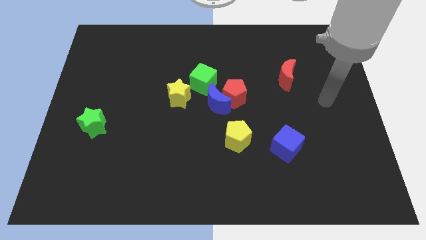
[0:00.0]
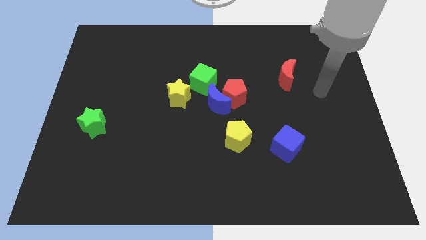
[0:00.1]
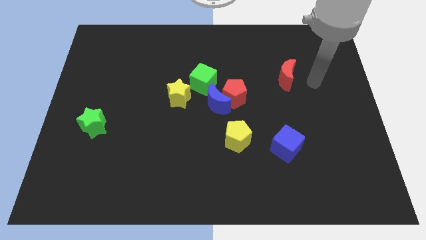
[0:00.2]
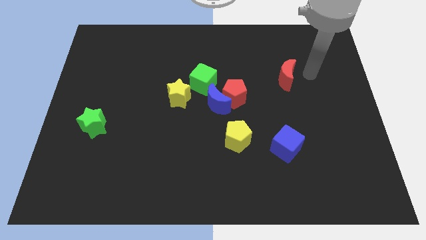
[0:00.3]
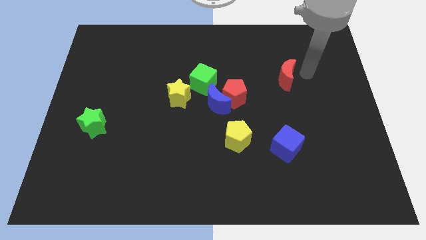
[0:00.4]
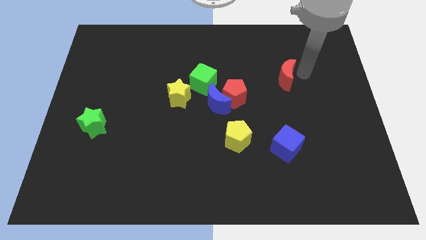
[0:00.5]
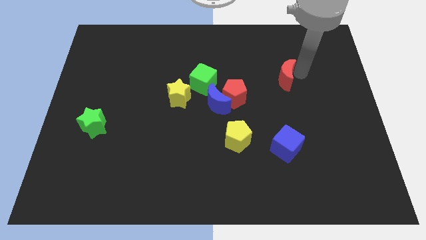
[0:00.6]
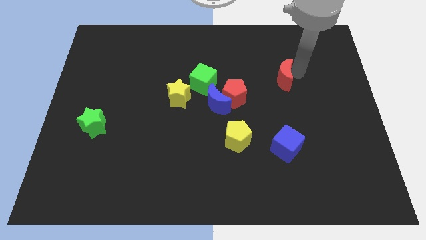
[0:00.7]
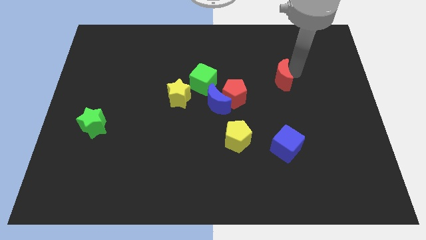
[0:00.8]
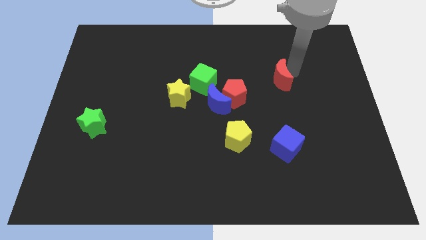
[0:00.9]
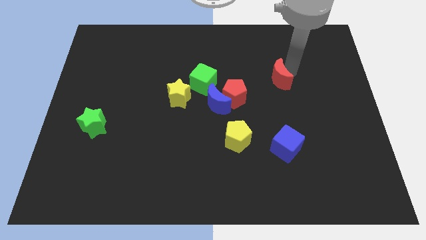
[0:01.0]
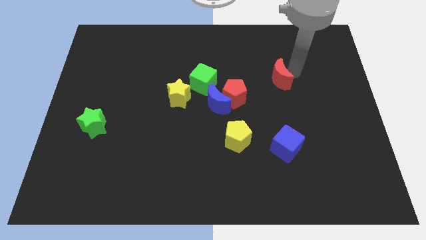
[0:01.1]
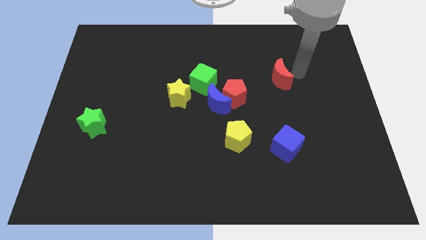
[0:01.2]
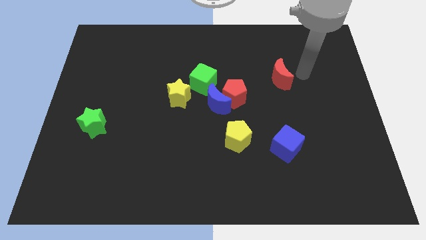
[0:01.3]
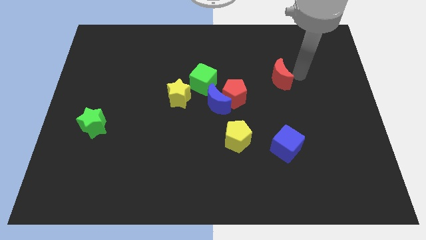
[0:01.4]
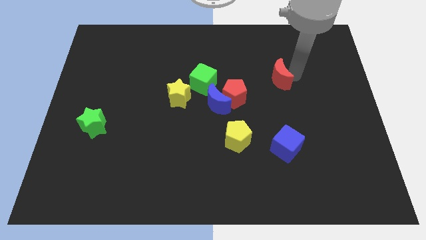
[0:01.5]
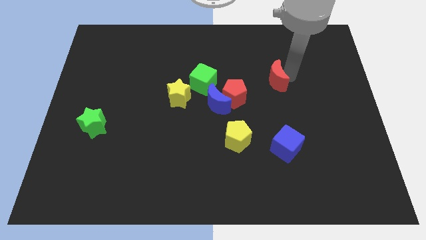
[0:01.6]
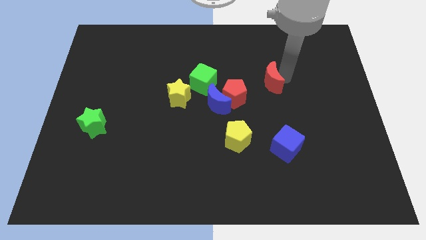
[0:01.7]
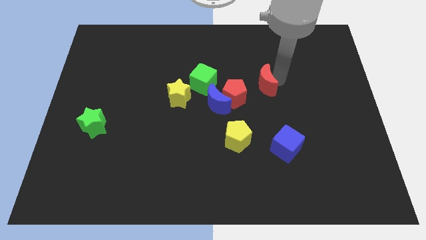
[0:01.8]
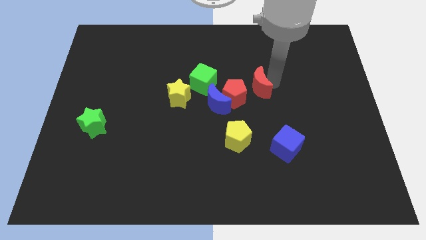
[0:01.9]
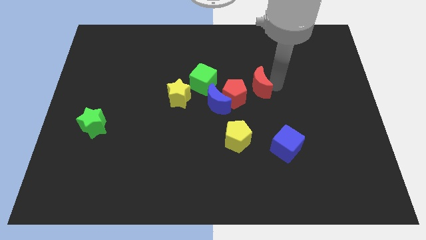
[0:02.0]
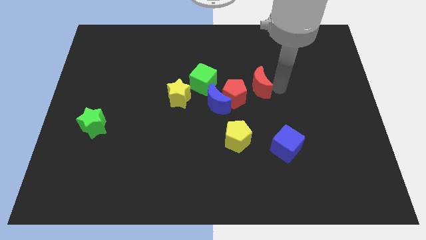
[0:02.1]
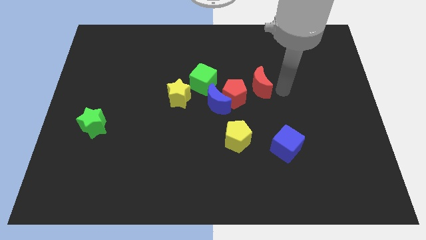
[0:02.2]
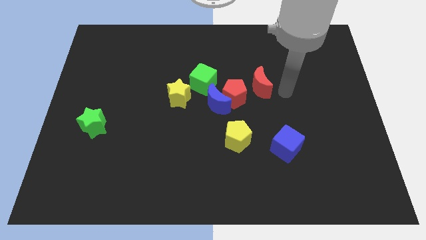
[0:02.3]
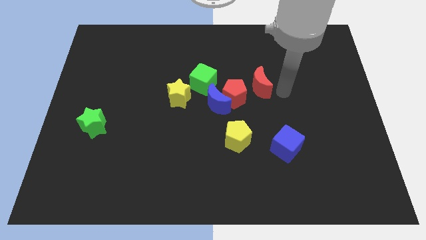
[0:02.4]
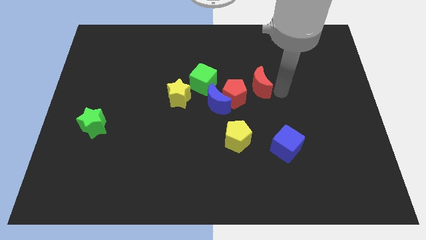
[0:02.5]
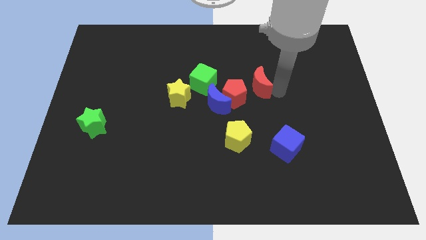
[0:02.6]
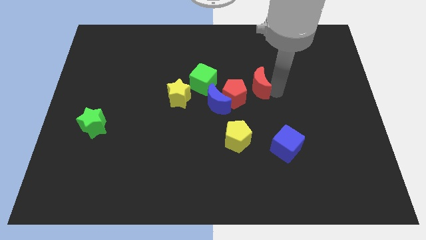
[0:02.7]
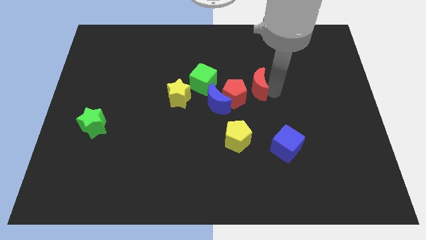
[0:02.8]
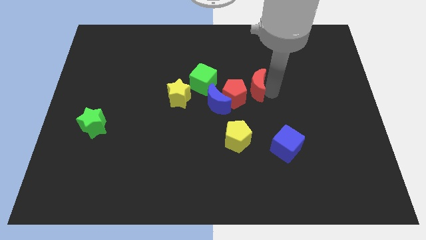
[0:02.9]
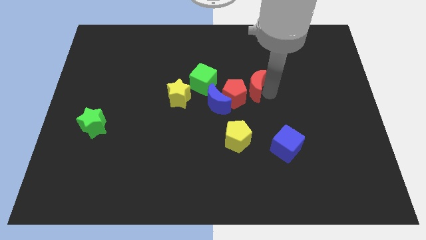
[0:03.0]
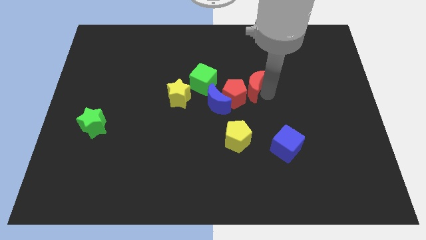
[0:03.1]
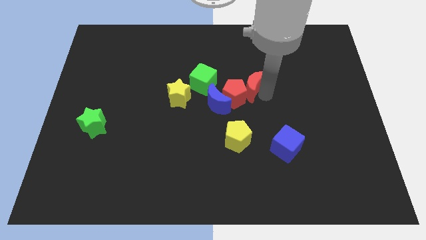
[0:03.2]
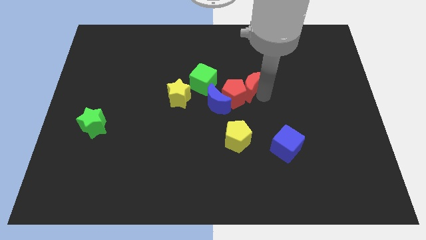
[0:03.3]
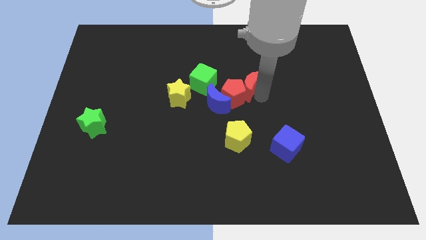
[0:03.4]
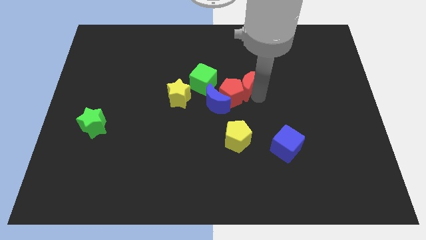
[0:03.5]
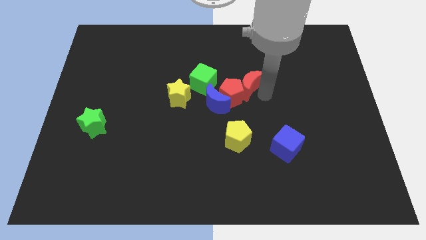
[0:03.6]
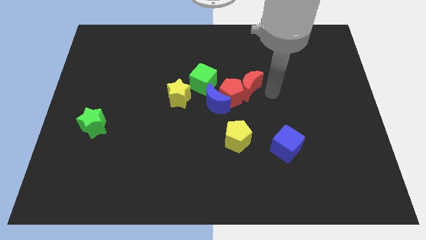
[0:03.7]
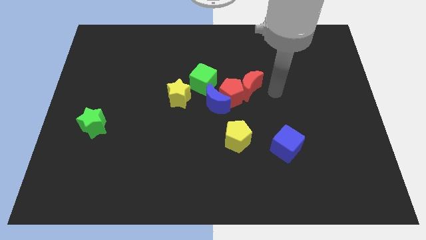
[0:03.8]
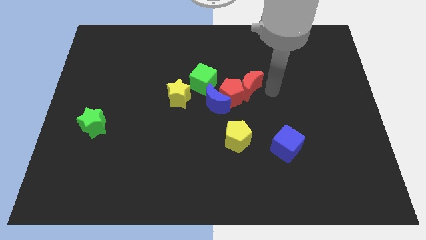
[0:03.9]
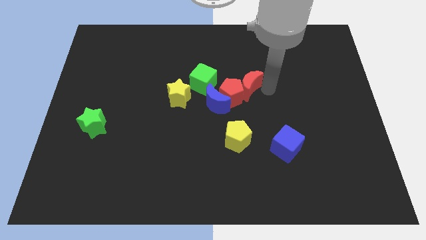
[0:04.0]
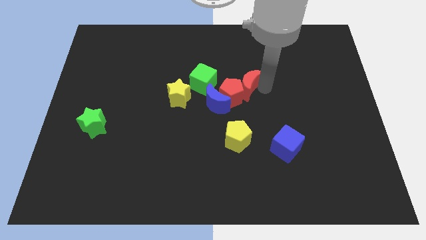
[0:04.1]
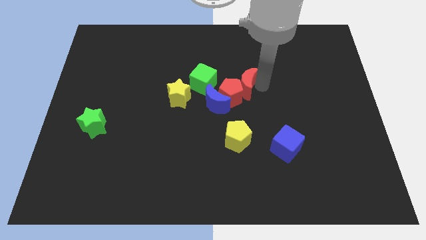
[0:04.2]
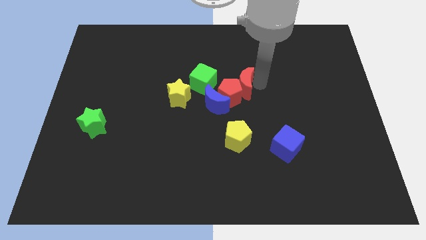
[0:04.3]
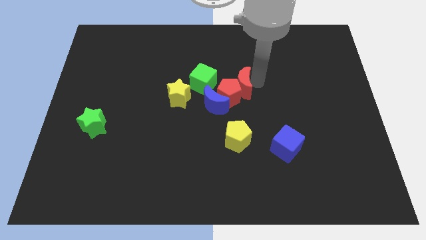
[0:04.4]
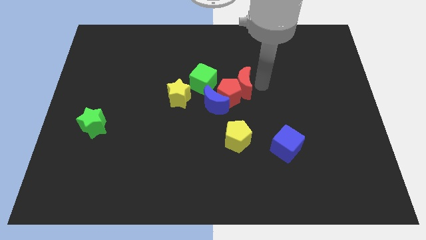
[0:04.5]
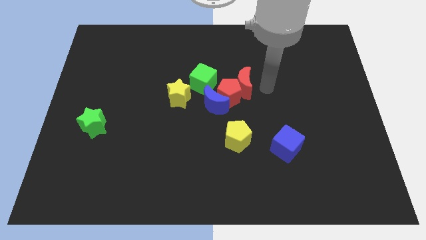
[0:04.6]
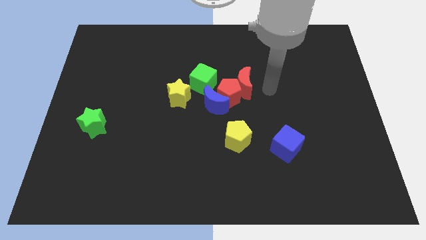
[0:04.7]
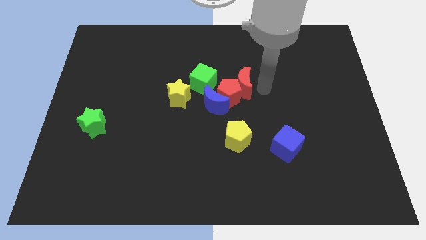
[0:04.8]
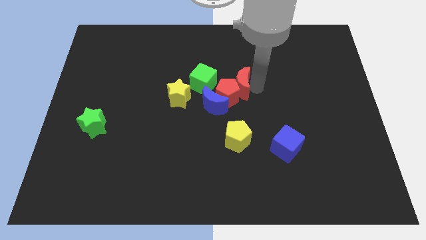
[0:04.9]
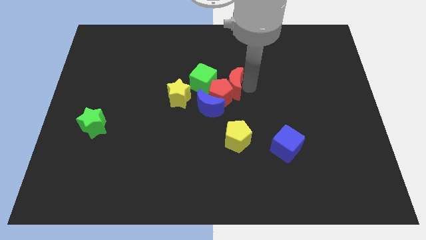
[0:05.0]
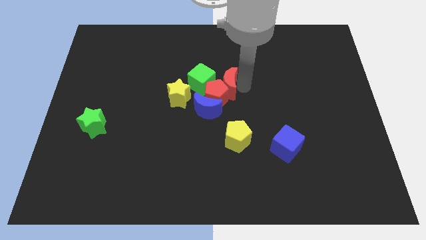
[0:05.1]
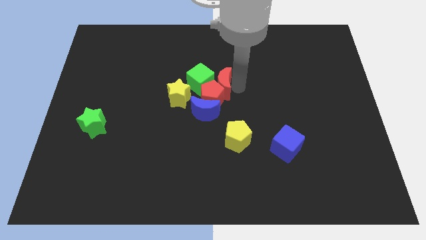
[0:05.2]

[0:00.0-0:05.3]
move the red moon next to the green cube

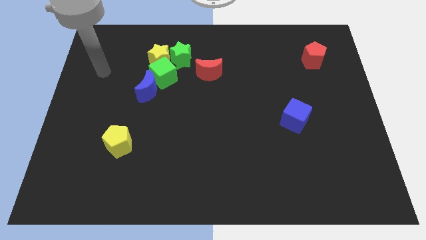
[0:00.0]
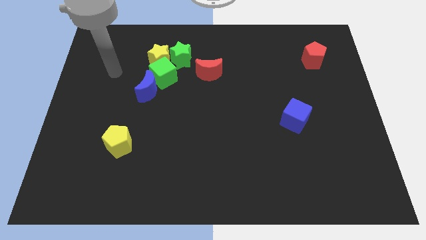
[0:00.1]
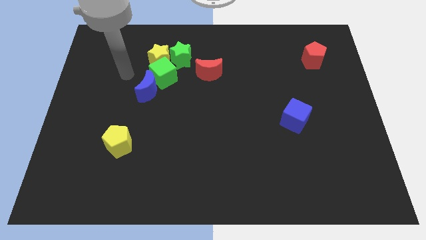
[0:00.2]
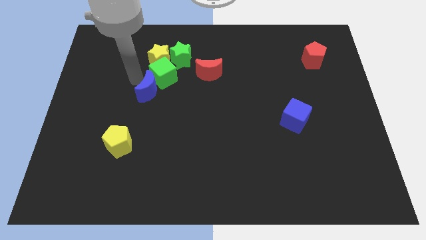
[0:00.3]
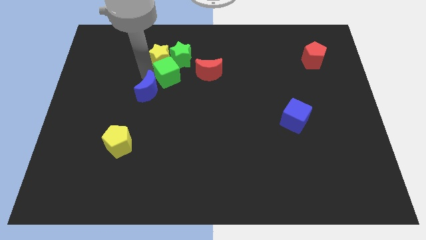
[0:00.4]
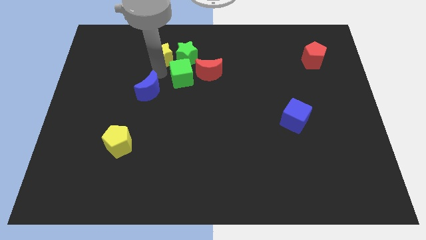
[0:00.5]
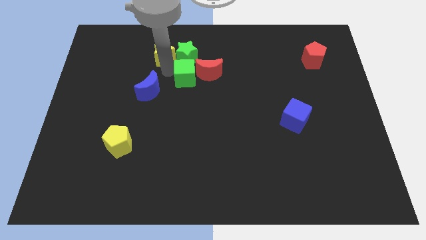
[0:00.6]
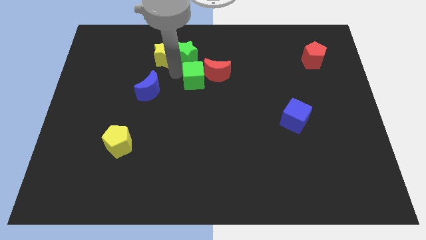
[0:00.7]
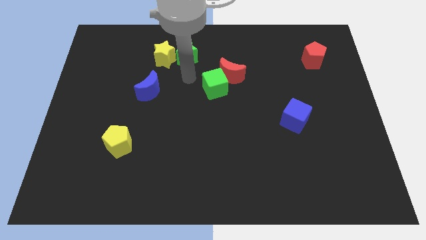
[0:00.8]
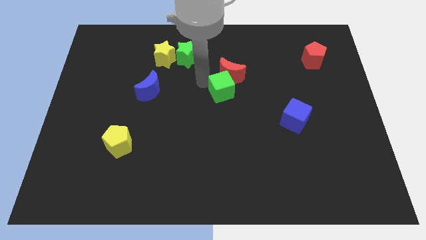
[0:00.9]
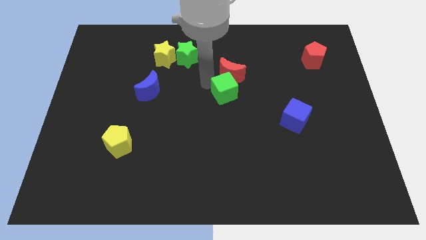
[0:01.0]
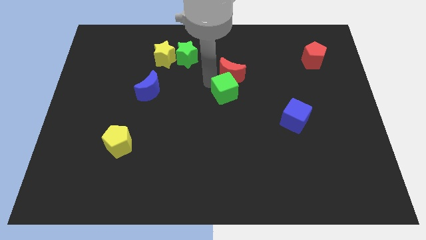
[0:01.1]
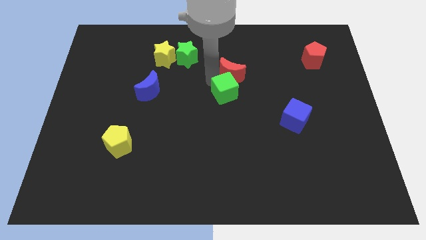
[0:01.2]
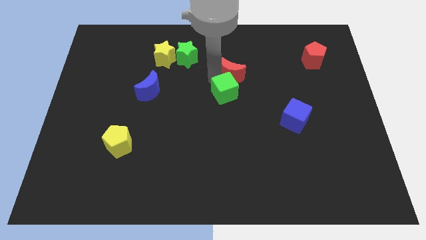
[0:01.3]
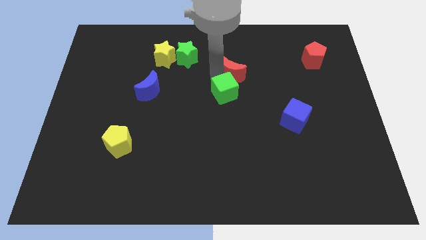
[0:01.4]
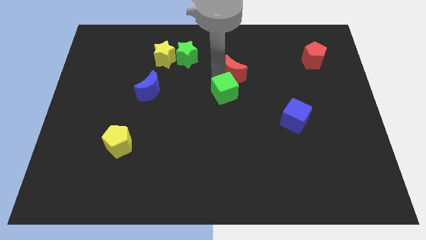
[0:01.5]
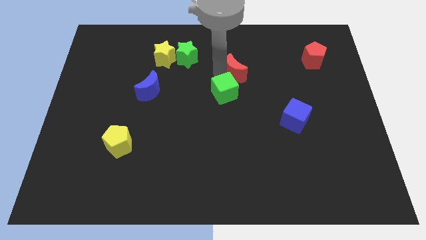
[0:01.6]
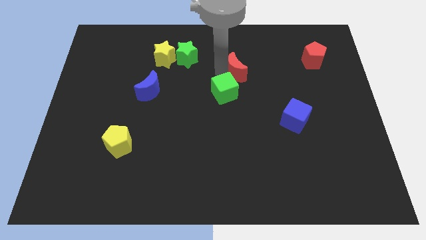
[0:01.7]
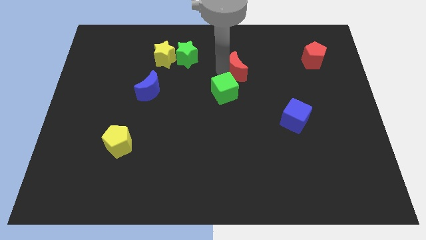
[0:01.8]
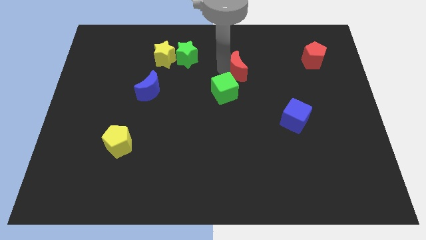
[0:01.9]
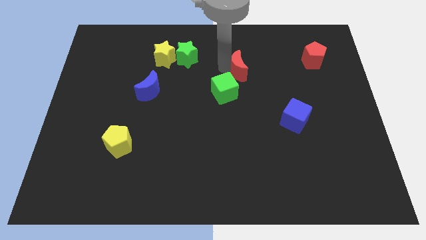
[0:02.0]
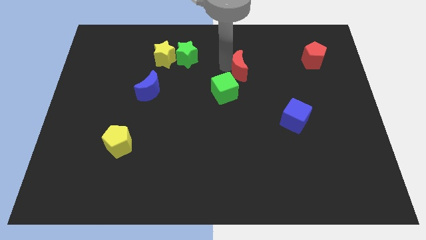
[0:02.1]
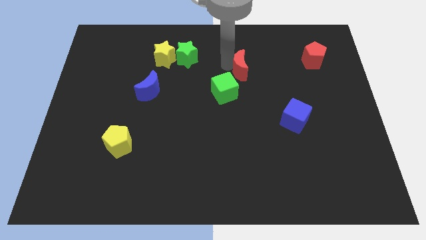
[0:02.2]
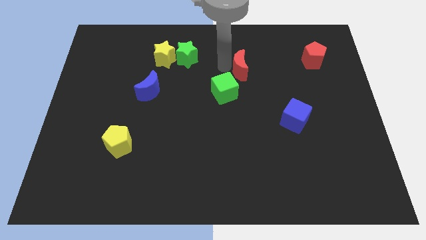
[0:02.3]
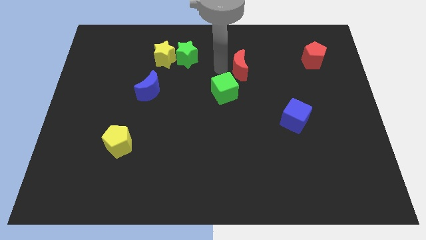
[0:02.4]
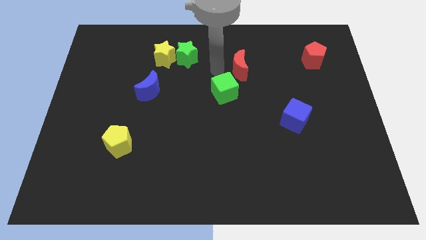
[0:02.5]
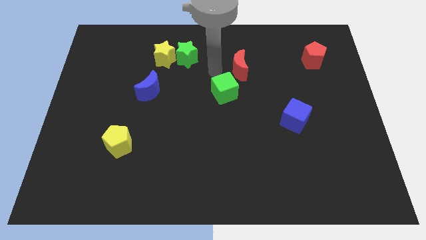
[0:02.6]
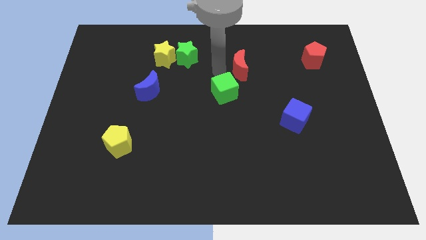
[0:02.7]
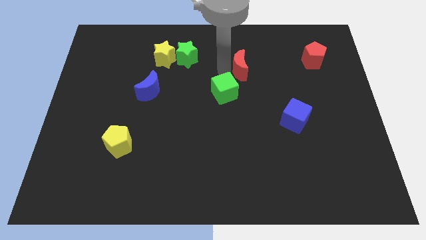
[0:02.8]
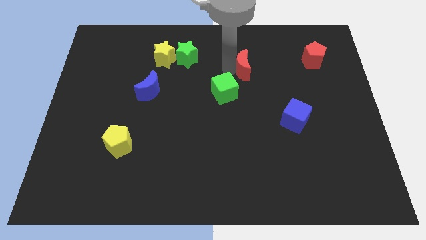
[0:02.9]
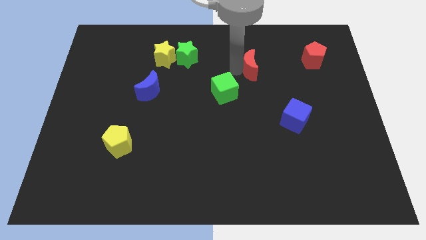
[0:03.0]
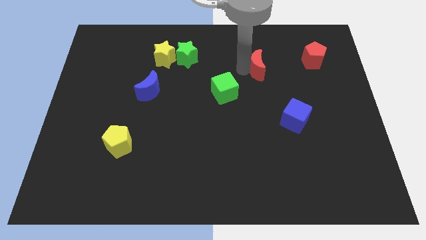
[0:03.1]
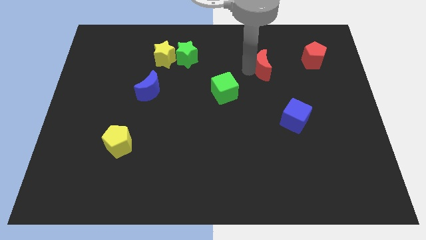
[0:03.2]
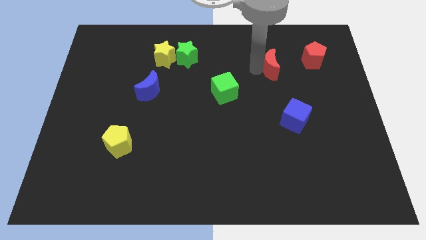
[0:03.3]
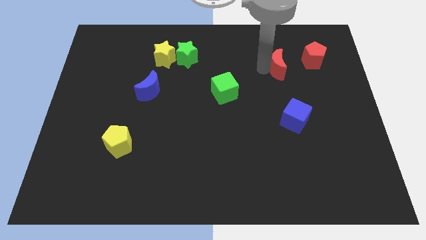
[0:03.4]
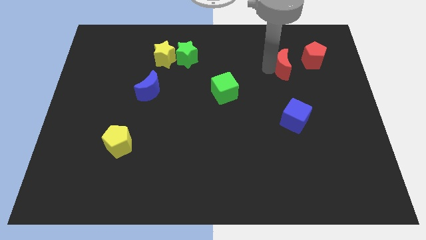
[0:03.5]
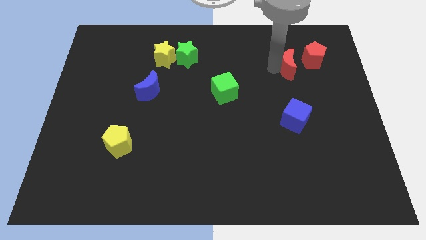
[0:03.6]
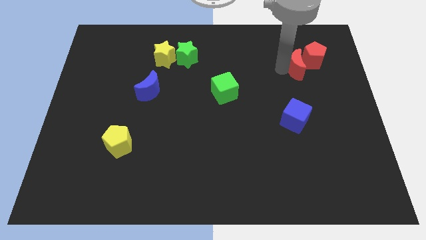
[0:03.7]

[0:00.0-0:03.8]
move the red moon close to the red pentagon
